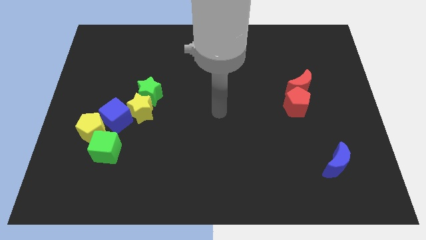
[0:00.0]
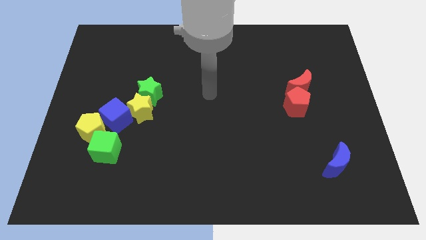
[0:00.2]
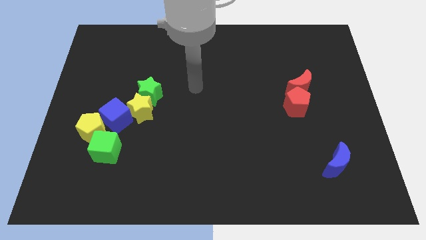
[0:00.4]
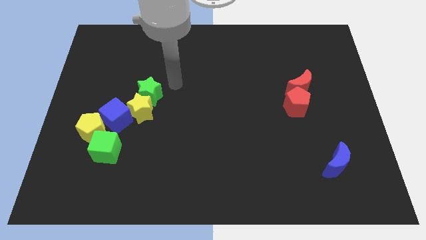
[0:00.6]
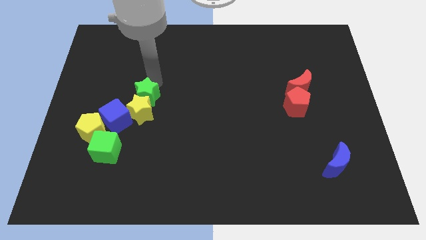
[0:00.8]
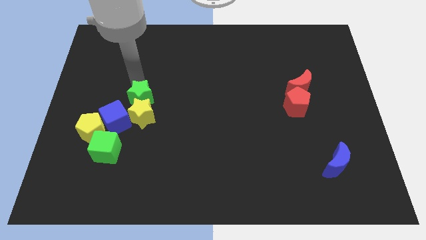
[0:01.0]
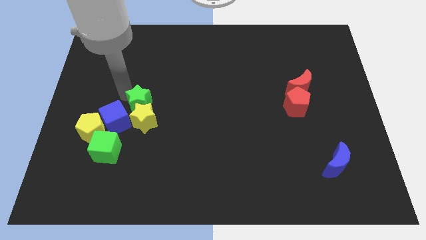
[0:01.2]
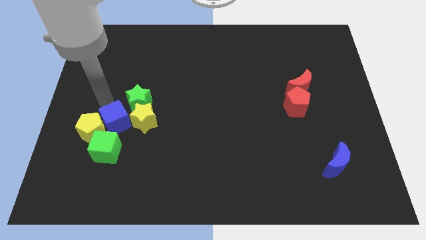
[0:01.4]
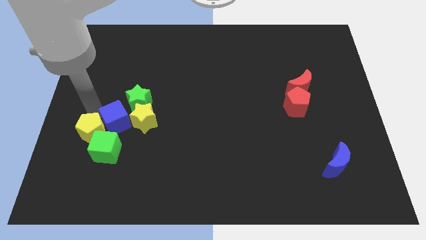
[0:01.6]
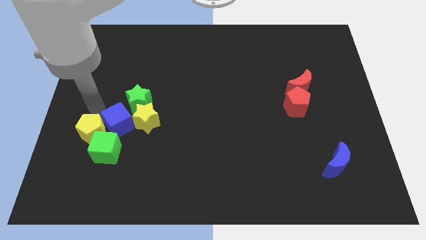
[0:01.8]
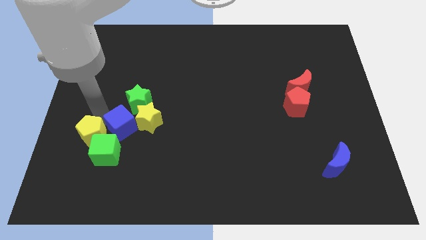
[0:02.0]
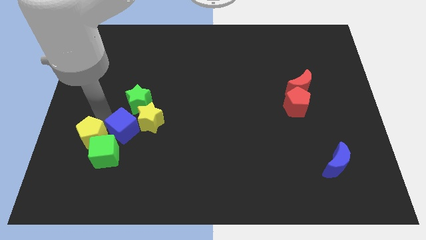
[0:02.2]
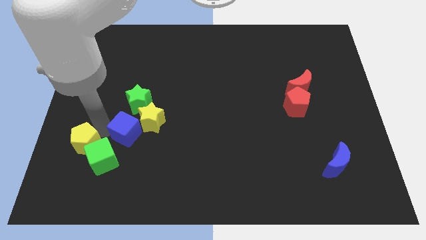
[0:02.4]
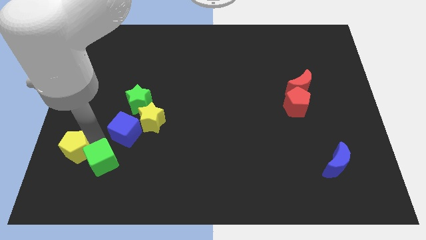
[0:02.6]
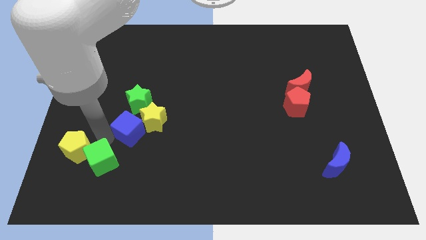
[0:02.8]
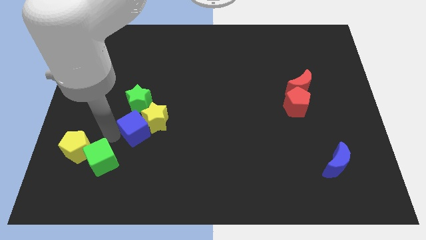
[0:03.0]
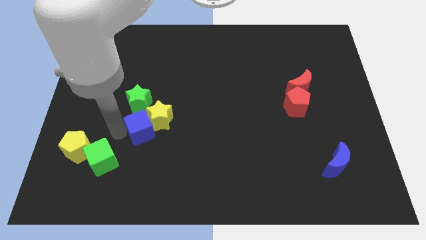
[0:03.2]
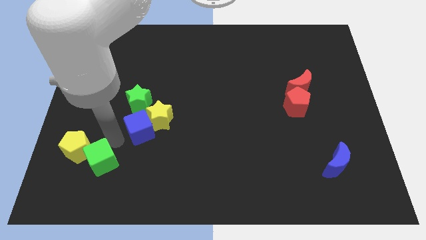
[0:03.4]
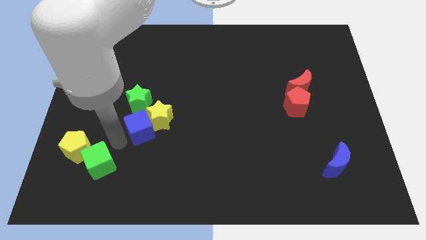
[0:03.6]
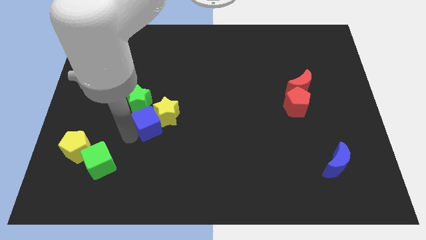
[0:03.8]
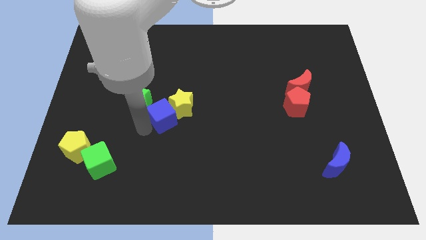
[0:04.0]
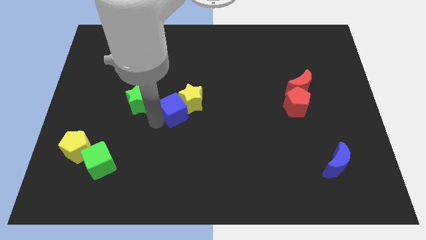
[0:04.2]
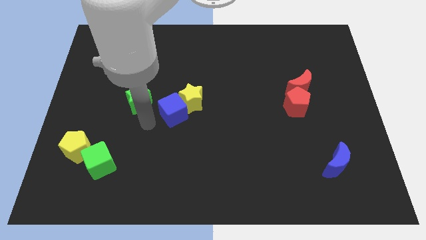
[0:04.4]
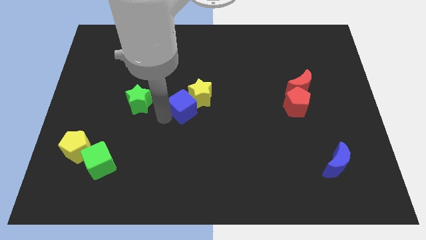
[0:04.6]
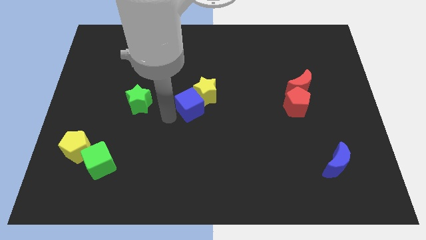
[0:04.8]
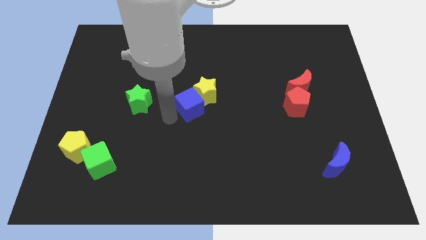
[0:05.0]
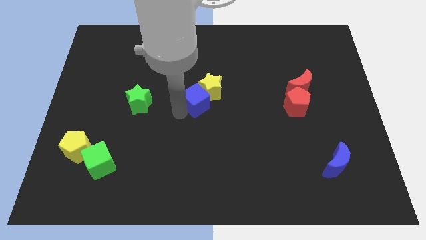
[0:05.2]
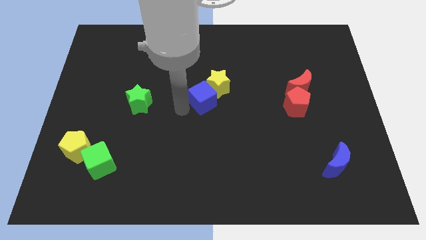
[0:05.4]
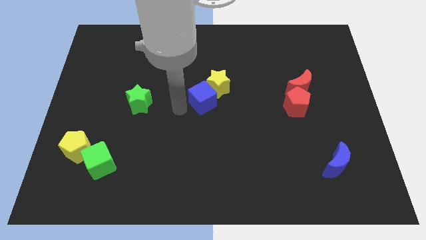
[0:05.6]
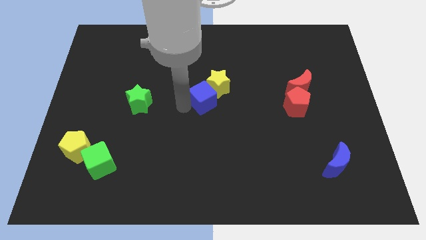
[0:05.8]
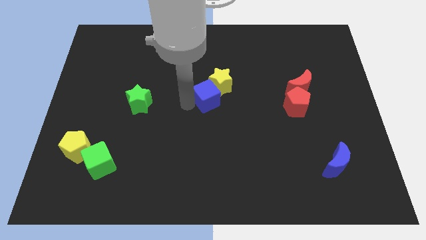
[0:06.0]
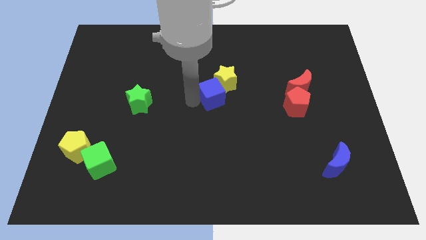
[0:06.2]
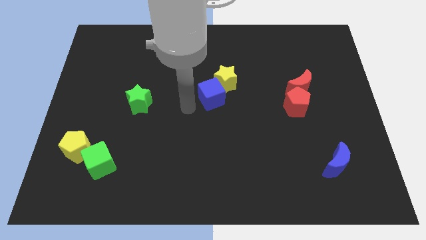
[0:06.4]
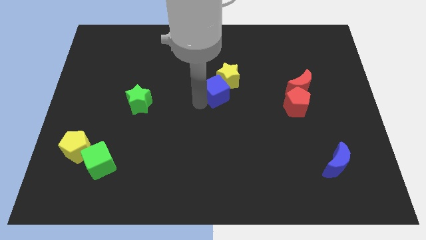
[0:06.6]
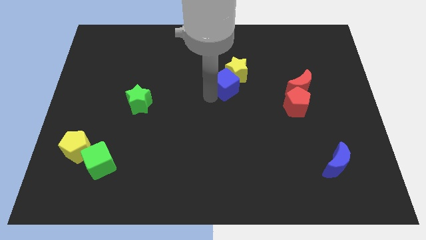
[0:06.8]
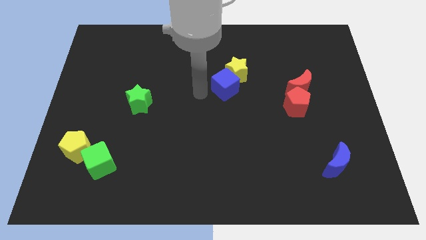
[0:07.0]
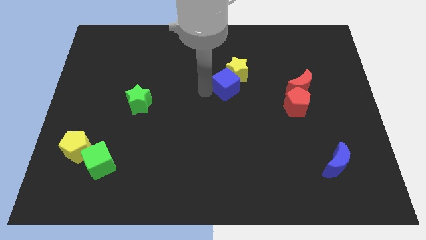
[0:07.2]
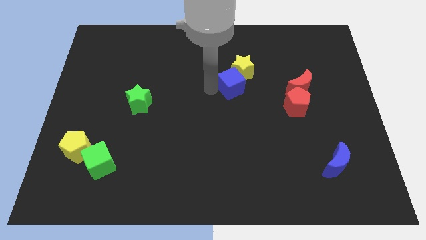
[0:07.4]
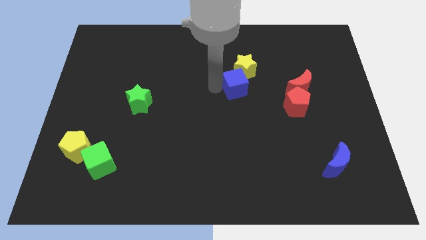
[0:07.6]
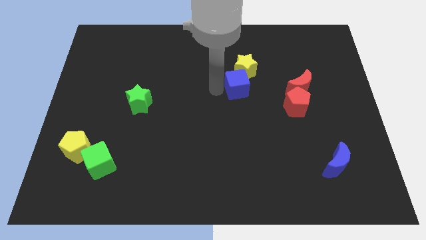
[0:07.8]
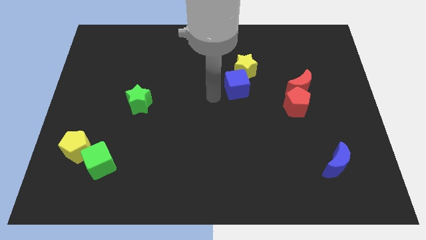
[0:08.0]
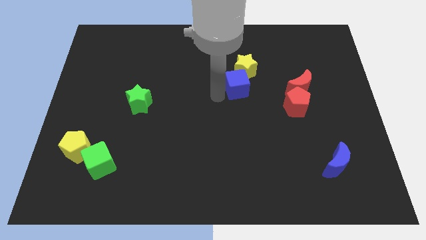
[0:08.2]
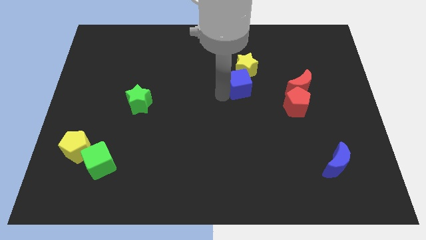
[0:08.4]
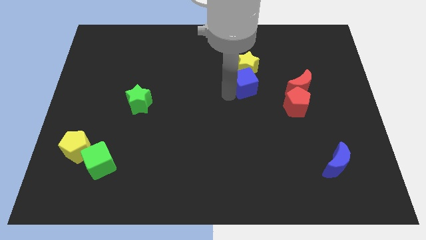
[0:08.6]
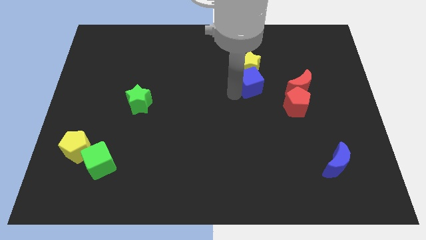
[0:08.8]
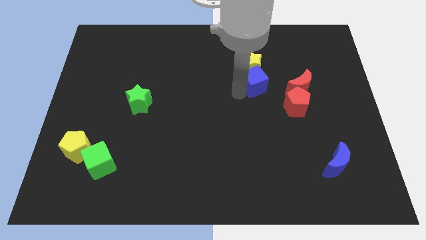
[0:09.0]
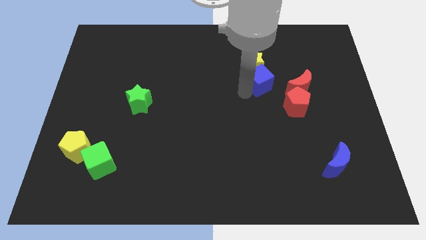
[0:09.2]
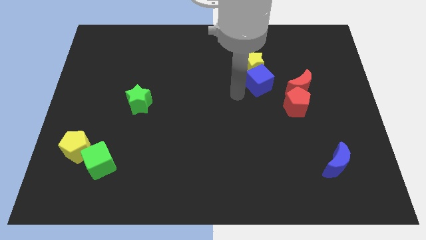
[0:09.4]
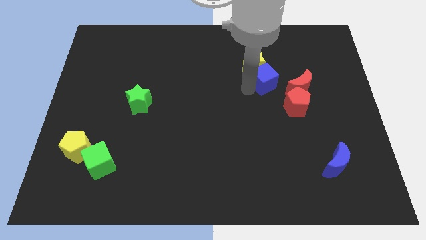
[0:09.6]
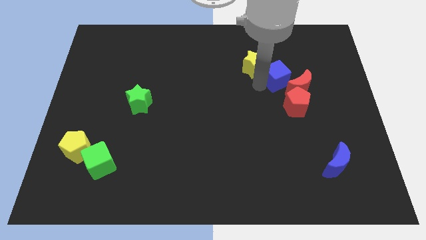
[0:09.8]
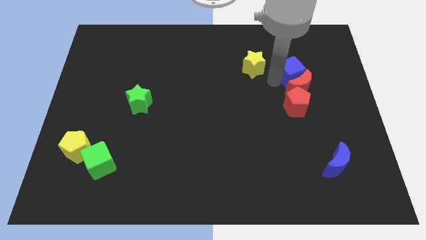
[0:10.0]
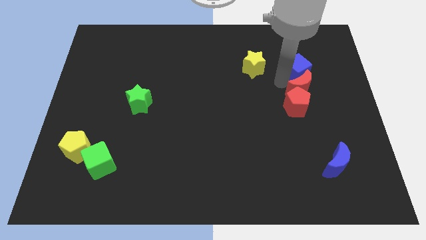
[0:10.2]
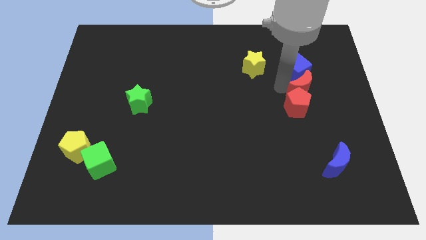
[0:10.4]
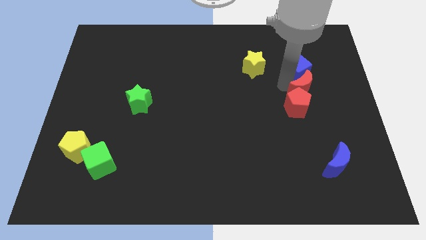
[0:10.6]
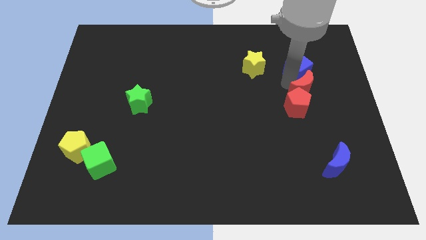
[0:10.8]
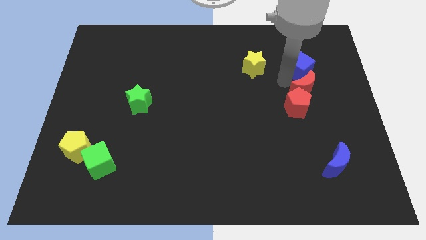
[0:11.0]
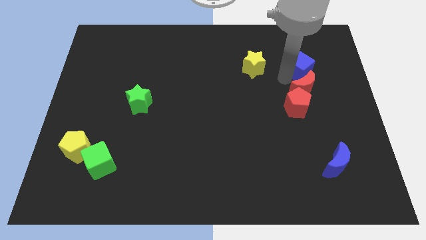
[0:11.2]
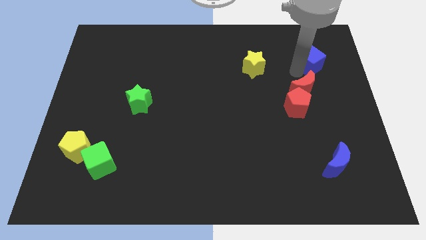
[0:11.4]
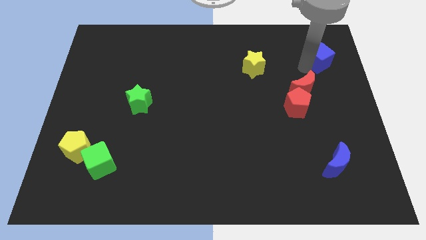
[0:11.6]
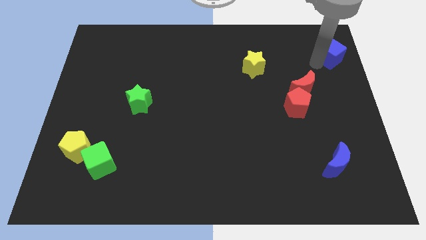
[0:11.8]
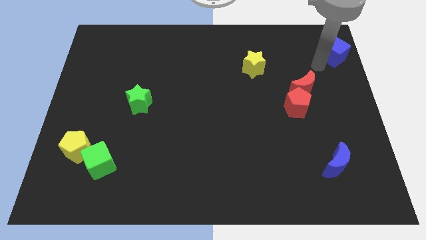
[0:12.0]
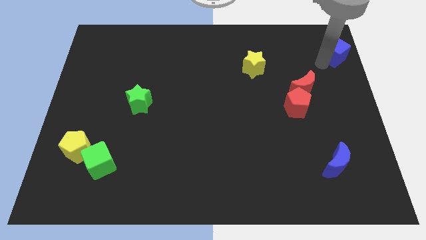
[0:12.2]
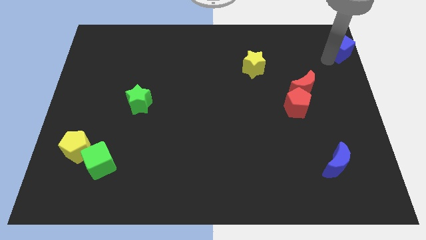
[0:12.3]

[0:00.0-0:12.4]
move the blue cube to the top right of the board
